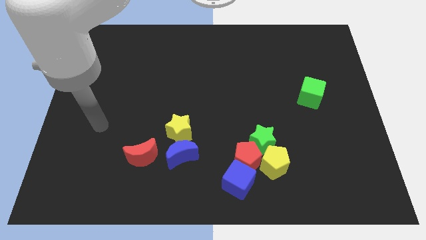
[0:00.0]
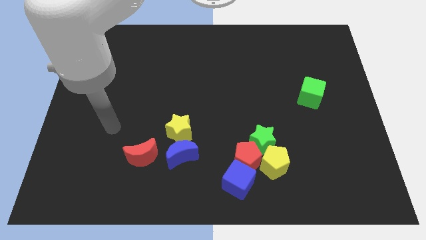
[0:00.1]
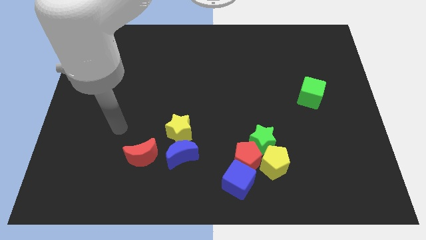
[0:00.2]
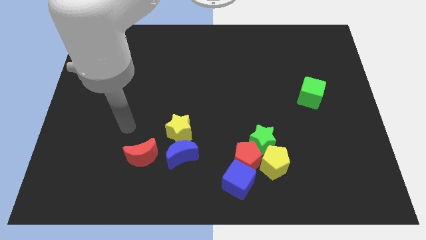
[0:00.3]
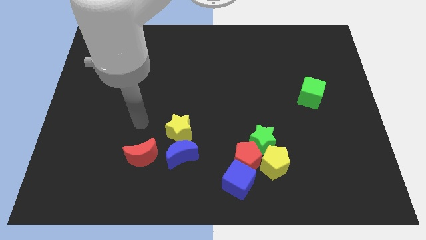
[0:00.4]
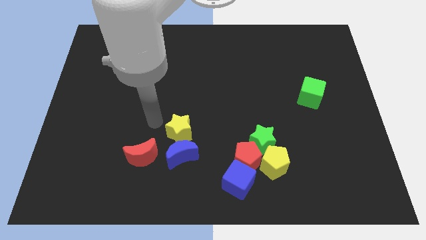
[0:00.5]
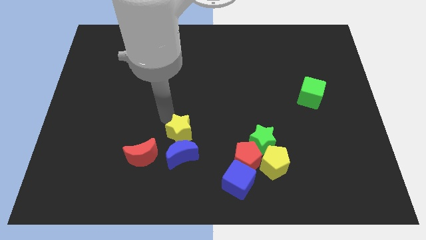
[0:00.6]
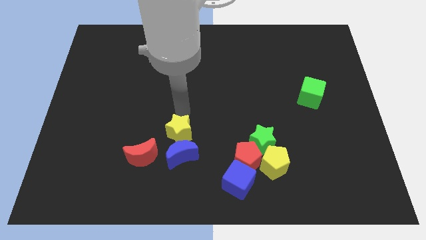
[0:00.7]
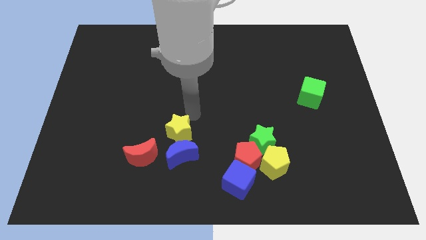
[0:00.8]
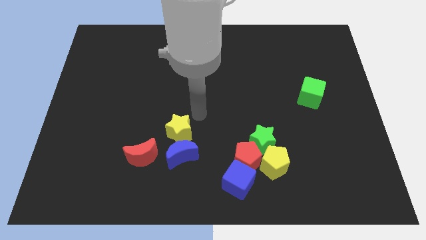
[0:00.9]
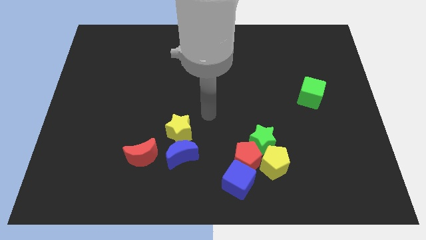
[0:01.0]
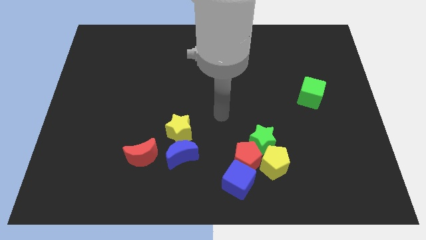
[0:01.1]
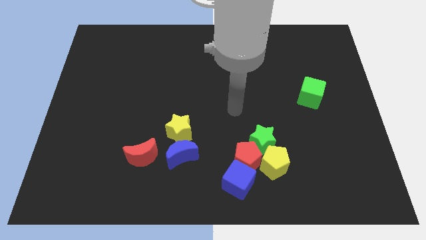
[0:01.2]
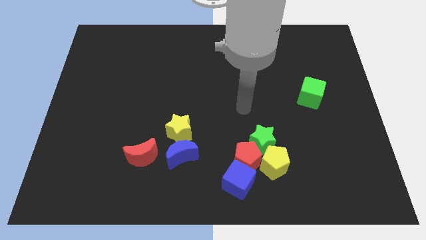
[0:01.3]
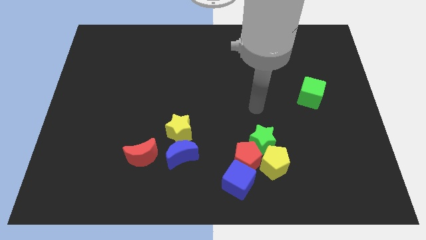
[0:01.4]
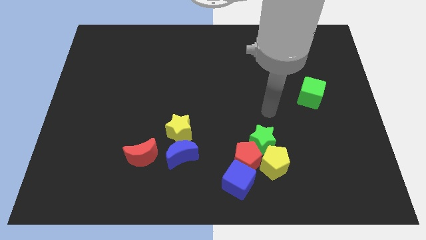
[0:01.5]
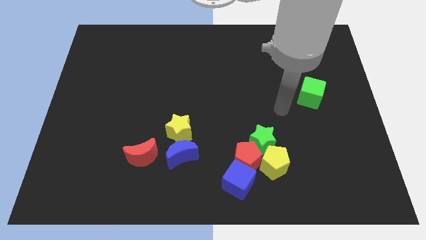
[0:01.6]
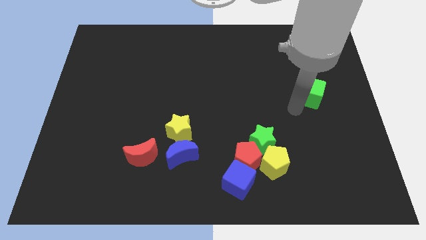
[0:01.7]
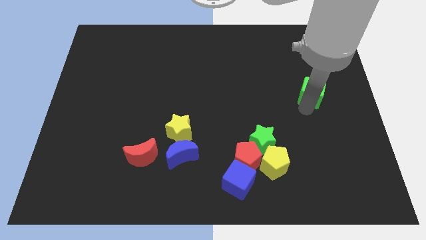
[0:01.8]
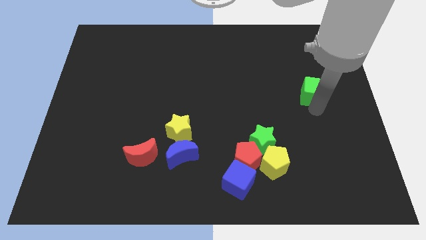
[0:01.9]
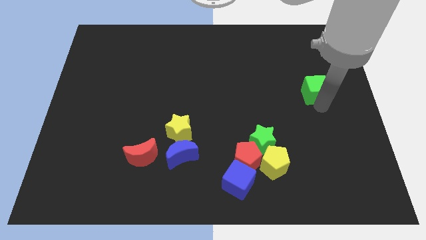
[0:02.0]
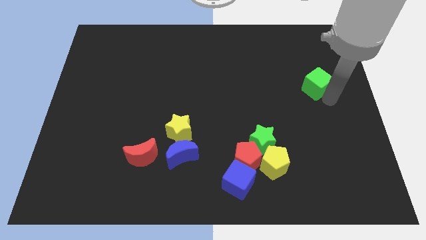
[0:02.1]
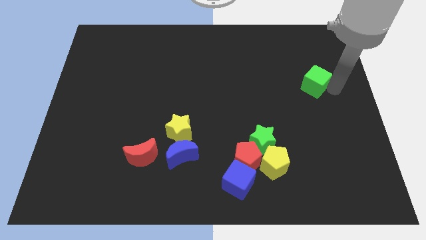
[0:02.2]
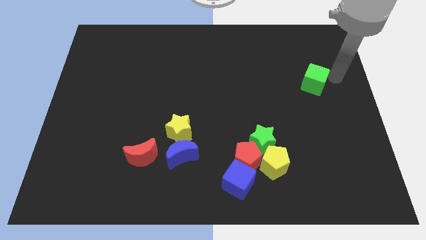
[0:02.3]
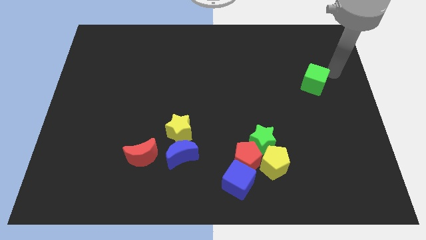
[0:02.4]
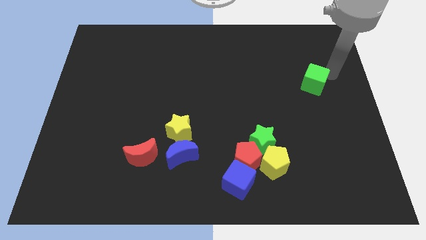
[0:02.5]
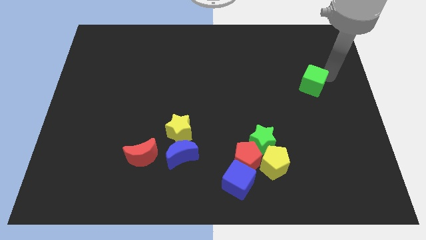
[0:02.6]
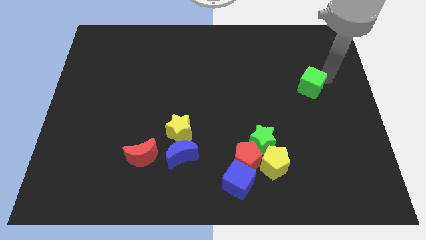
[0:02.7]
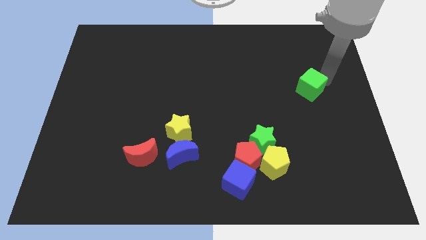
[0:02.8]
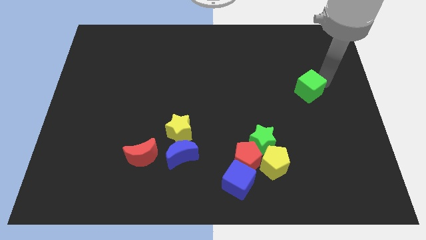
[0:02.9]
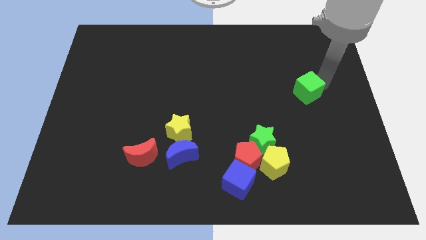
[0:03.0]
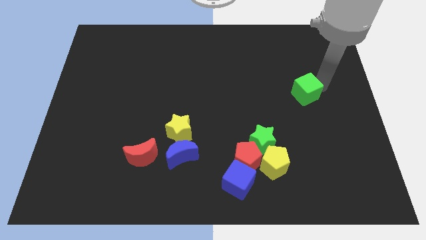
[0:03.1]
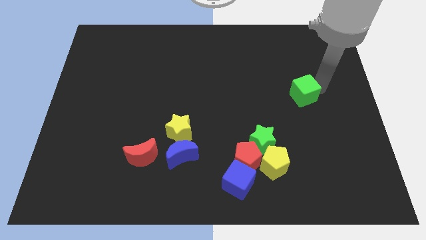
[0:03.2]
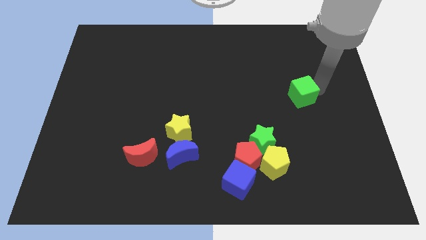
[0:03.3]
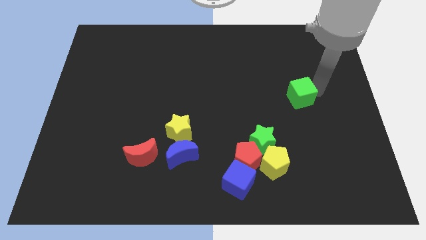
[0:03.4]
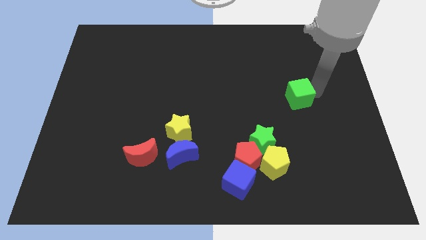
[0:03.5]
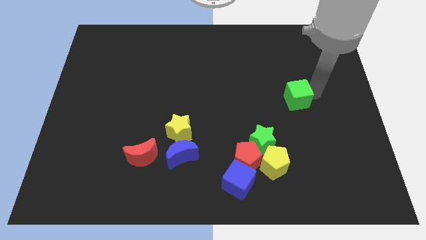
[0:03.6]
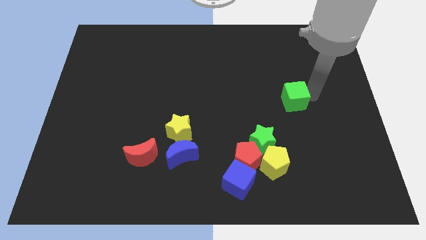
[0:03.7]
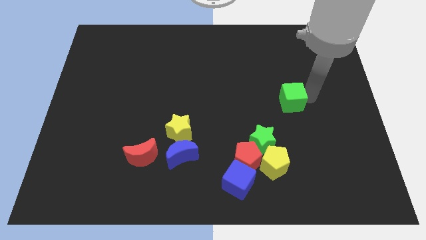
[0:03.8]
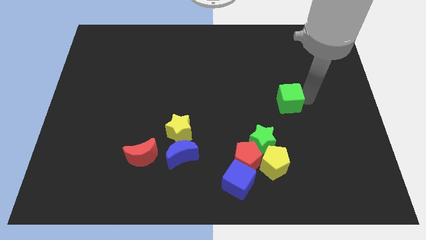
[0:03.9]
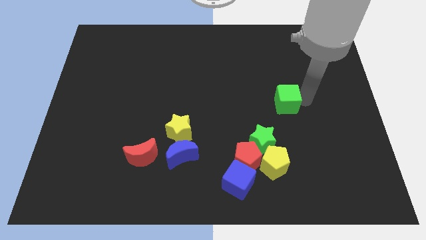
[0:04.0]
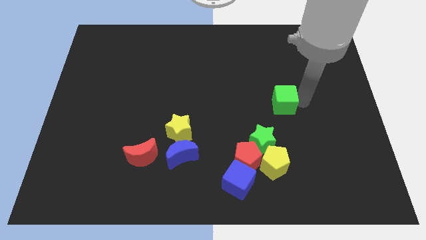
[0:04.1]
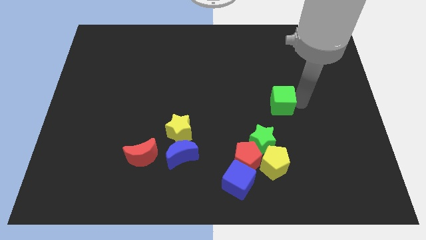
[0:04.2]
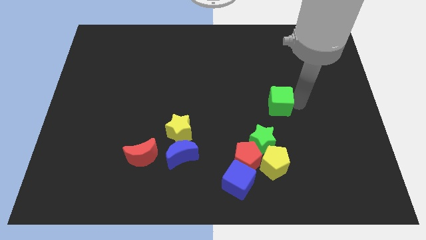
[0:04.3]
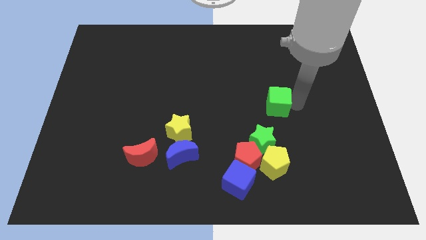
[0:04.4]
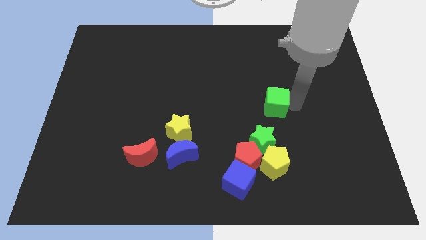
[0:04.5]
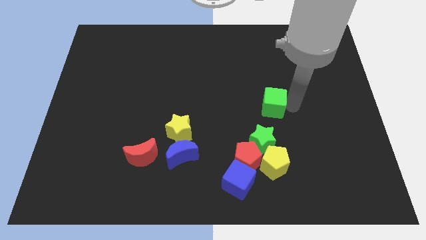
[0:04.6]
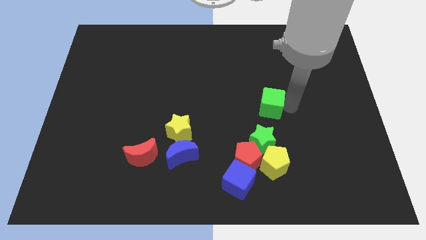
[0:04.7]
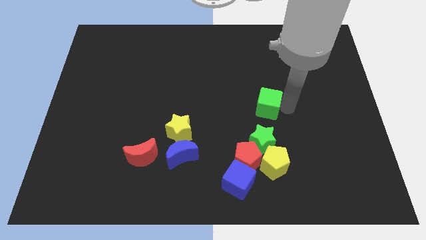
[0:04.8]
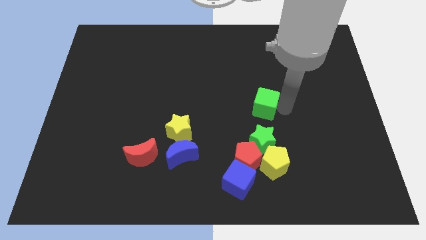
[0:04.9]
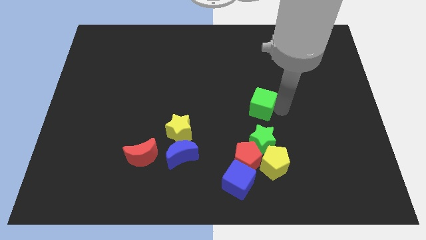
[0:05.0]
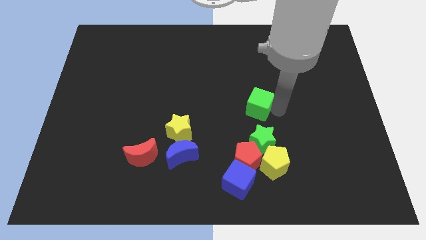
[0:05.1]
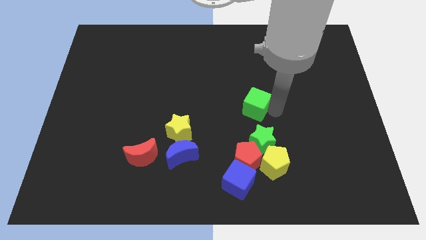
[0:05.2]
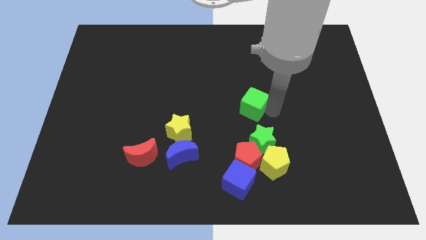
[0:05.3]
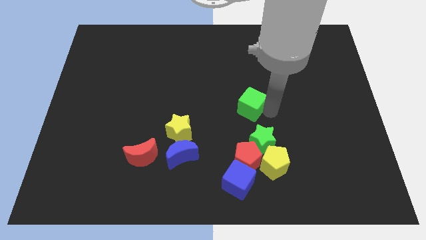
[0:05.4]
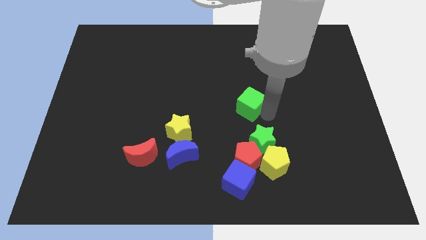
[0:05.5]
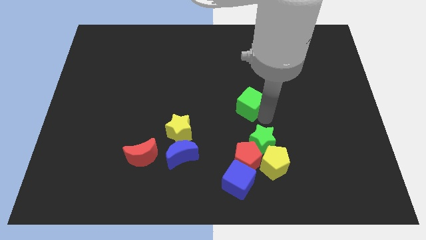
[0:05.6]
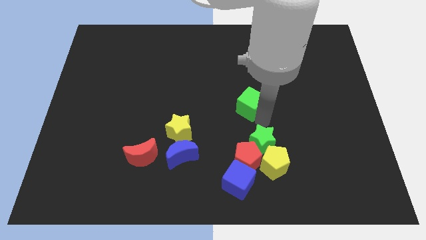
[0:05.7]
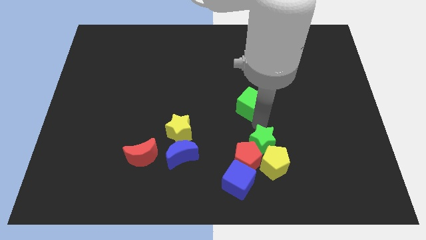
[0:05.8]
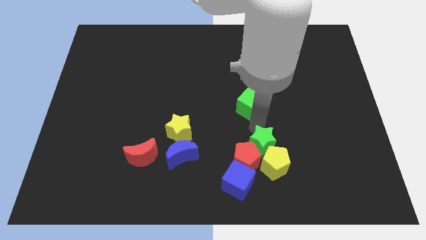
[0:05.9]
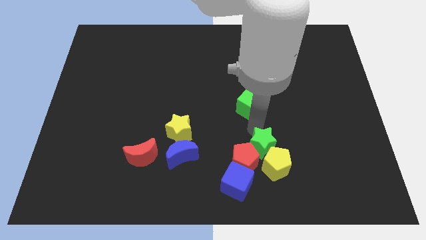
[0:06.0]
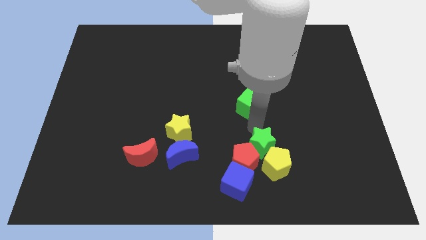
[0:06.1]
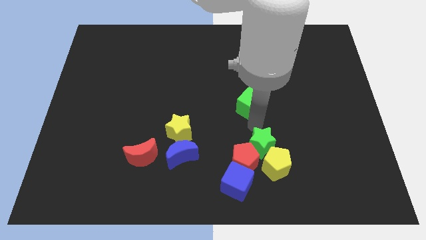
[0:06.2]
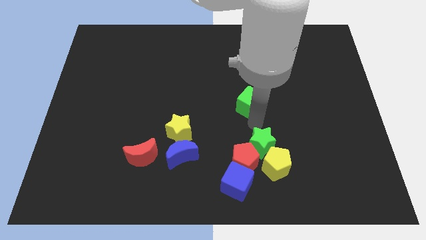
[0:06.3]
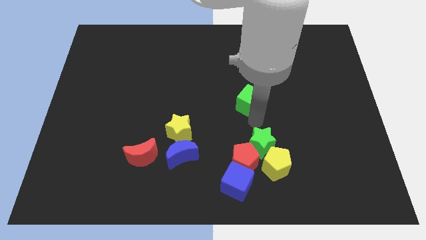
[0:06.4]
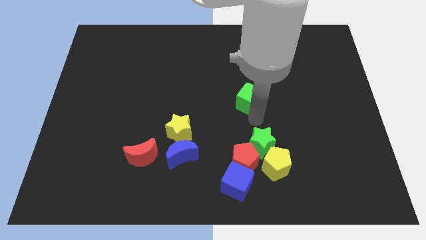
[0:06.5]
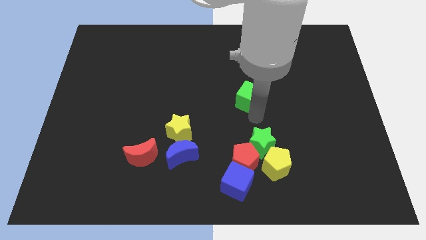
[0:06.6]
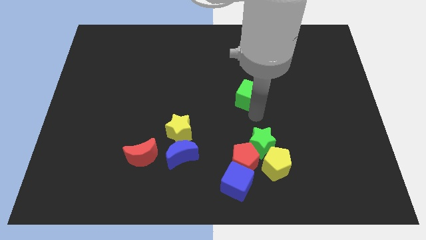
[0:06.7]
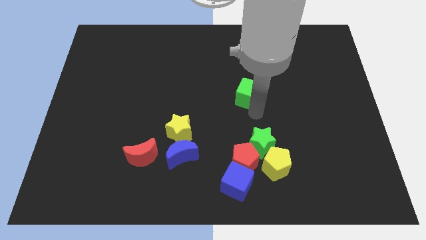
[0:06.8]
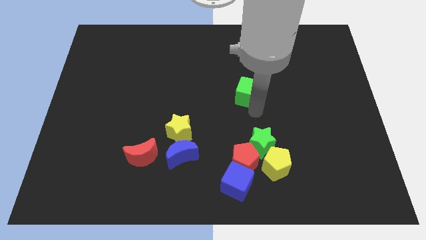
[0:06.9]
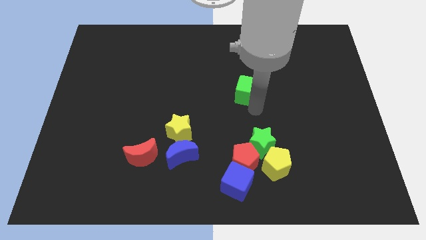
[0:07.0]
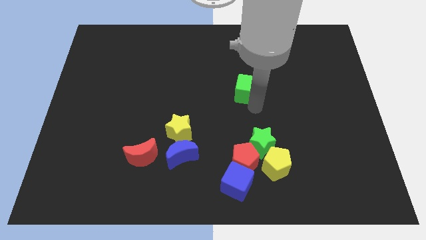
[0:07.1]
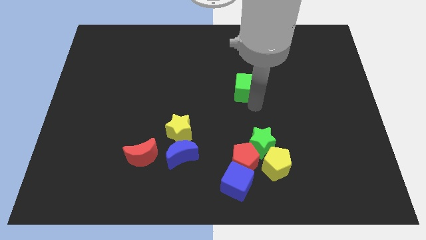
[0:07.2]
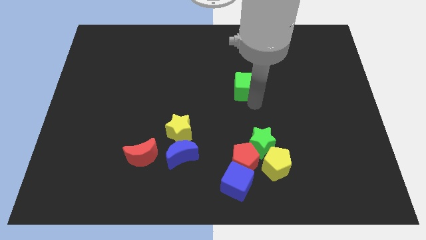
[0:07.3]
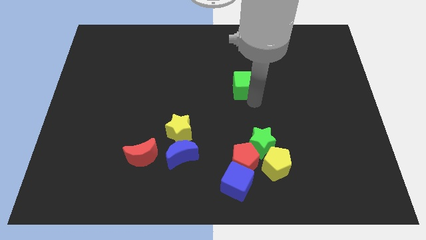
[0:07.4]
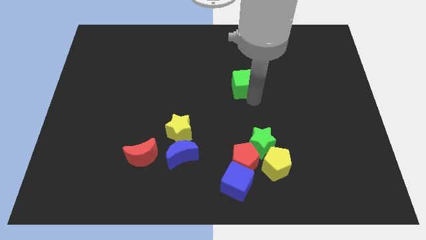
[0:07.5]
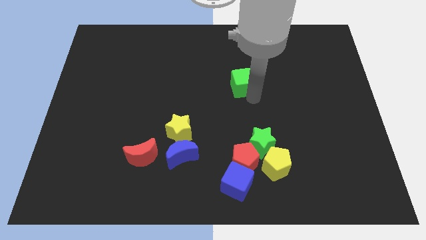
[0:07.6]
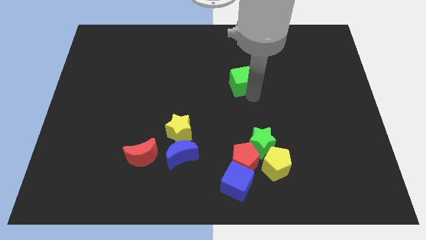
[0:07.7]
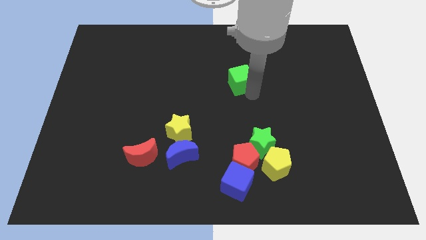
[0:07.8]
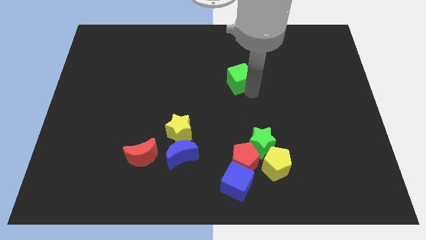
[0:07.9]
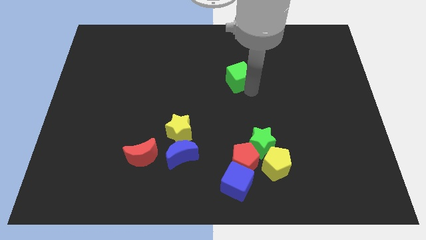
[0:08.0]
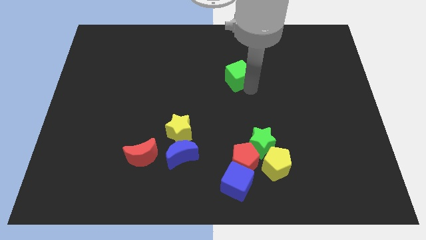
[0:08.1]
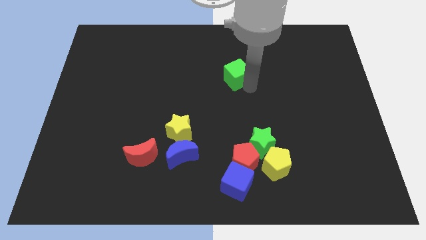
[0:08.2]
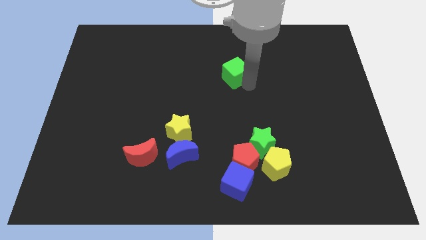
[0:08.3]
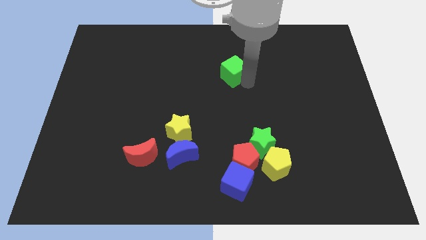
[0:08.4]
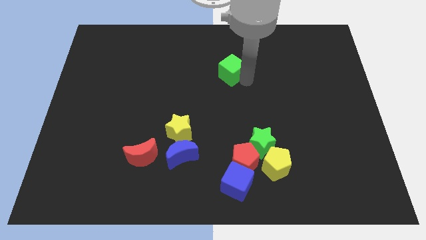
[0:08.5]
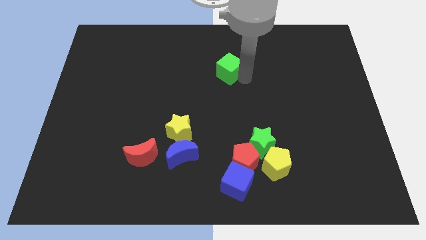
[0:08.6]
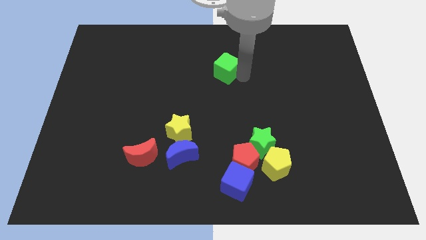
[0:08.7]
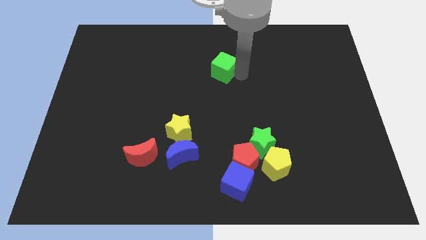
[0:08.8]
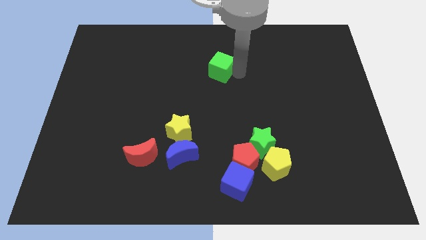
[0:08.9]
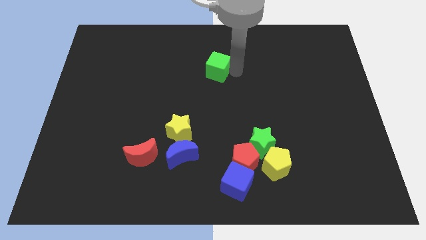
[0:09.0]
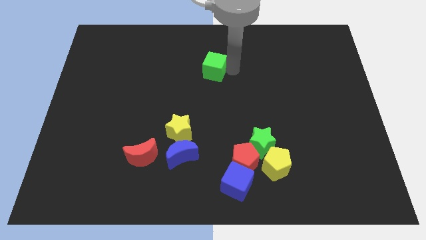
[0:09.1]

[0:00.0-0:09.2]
slide the green cube left
